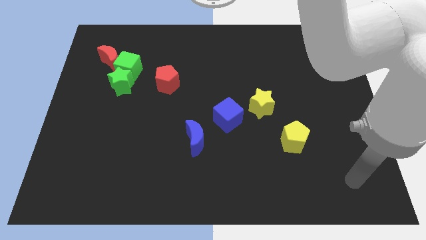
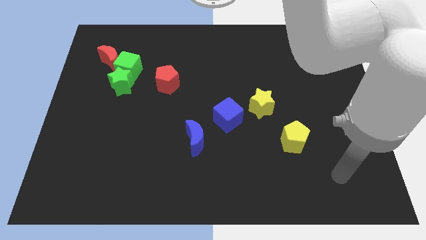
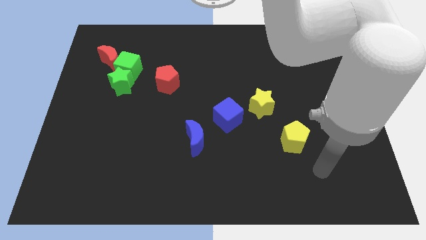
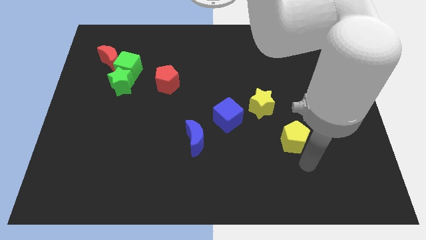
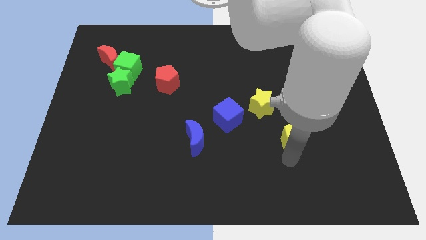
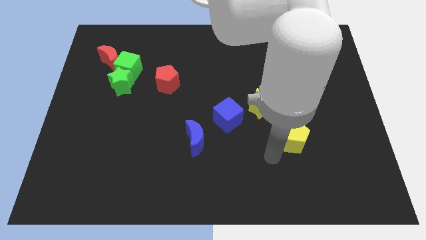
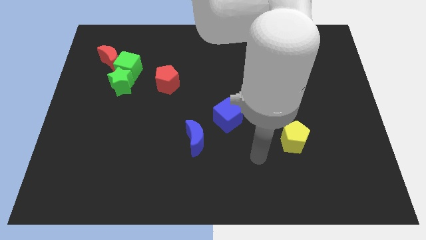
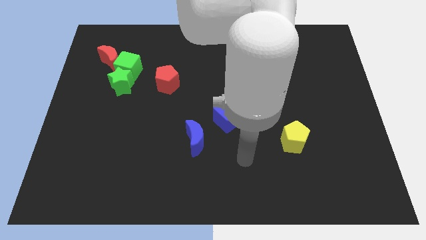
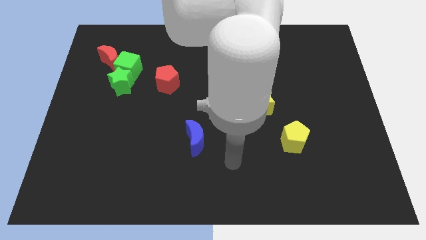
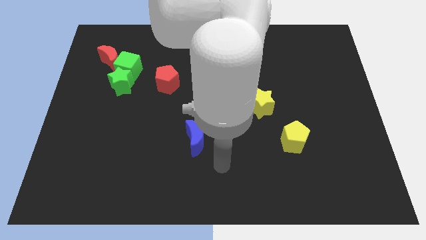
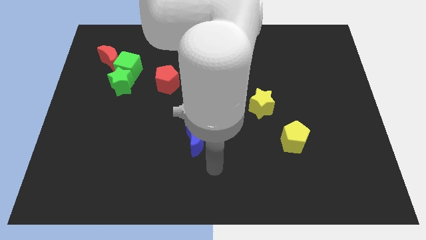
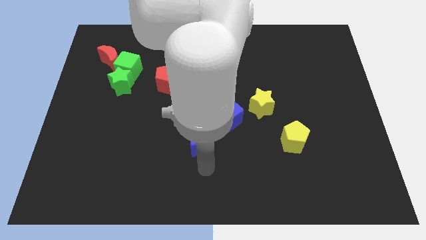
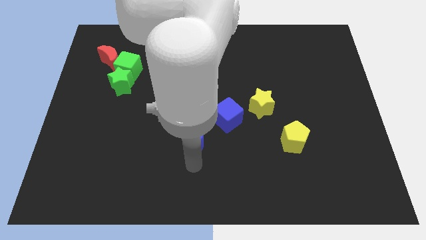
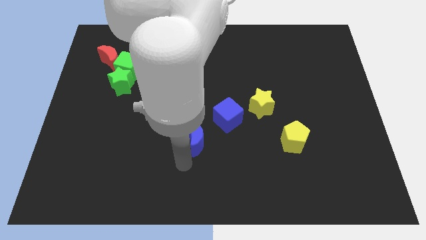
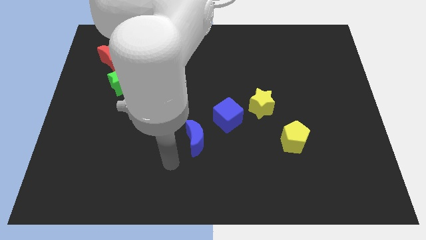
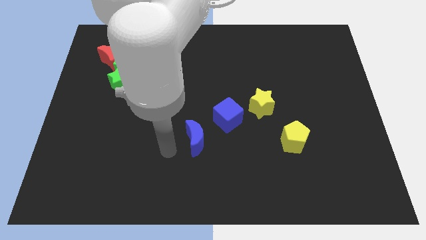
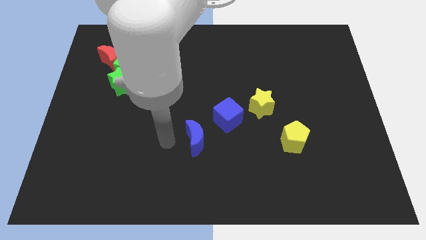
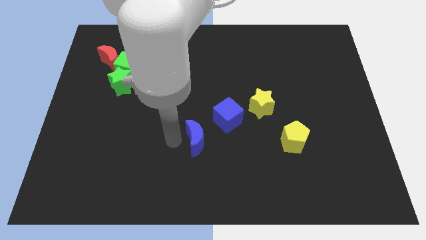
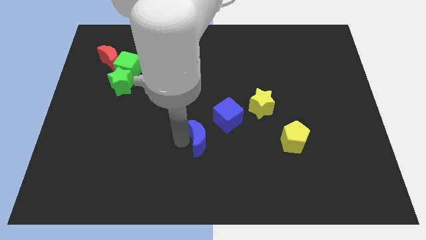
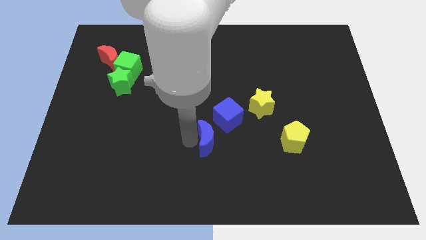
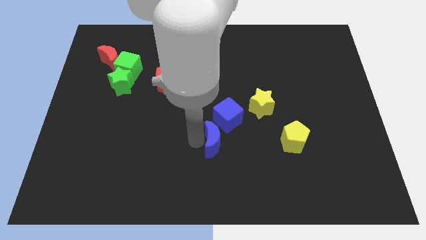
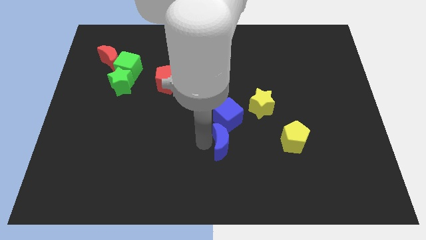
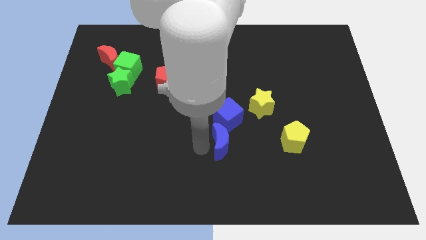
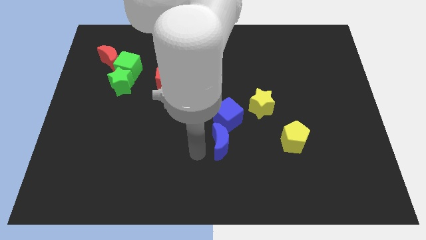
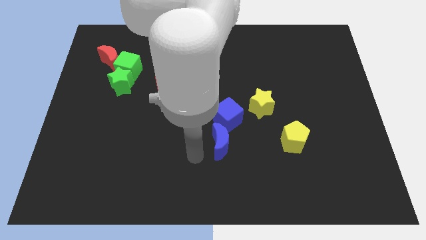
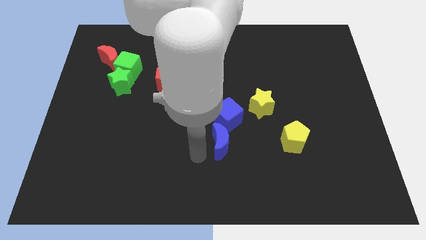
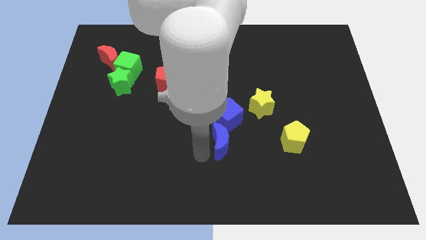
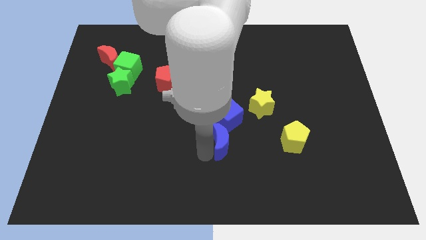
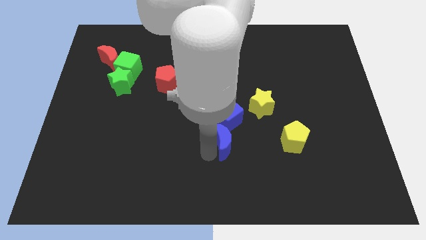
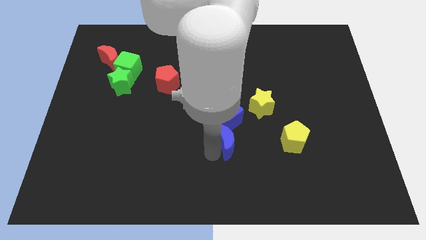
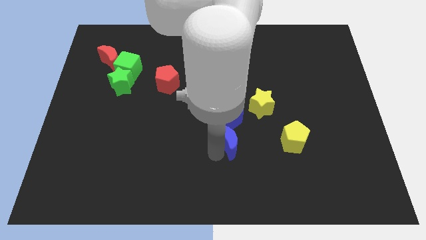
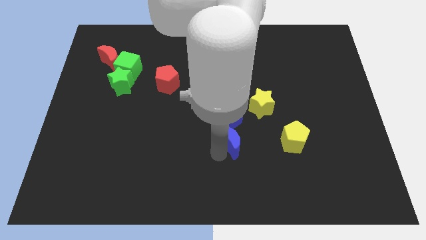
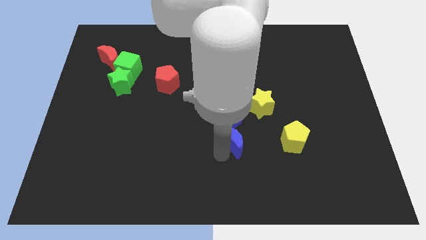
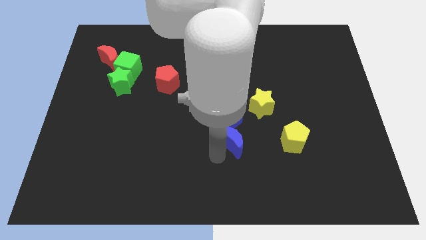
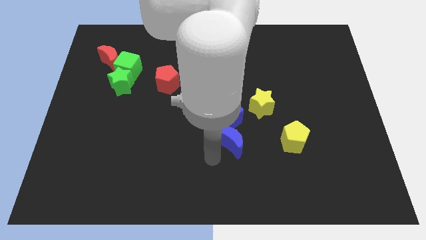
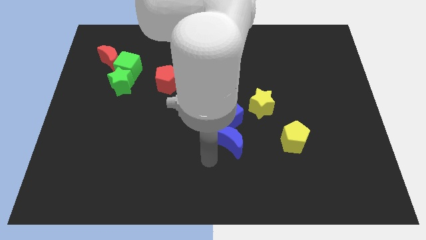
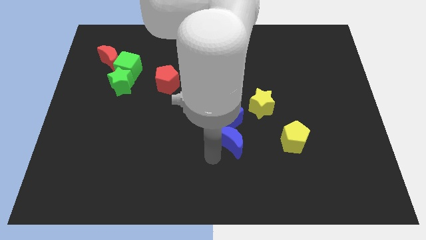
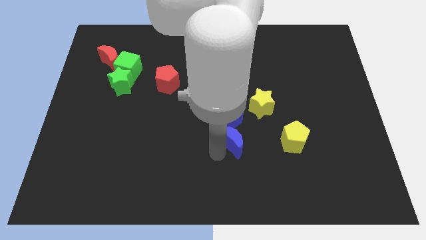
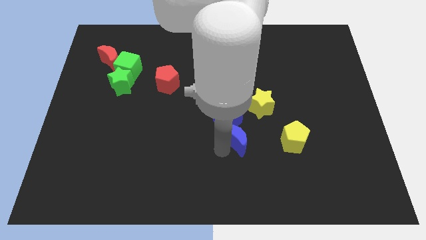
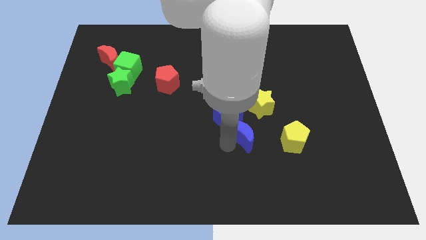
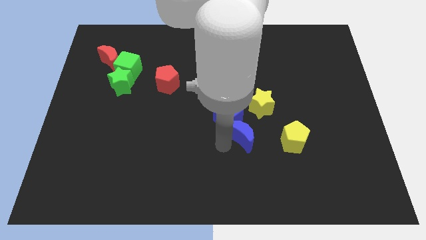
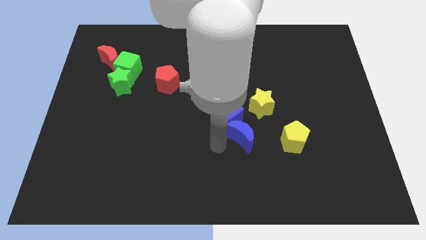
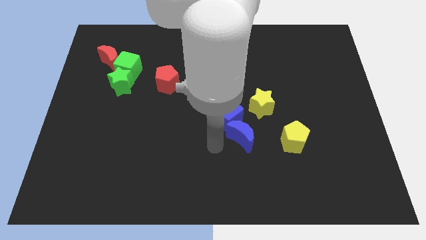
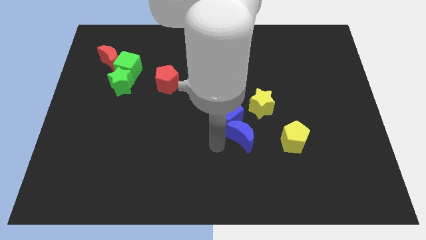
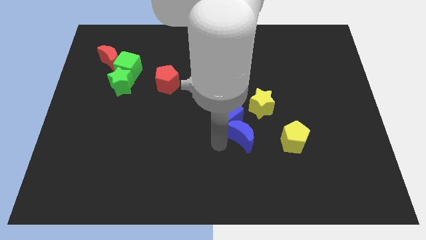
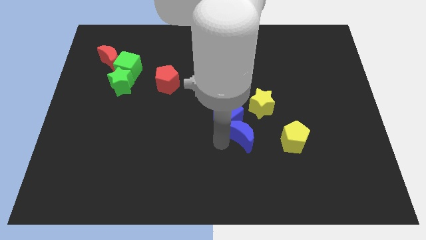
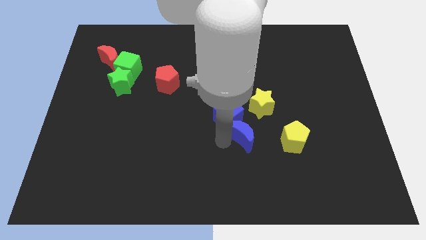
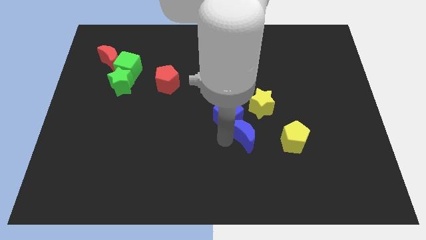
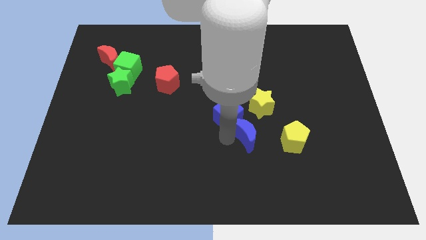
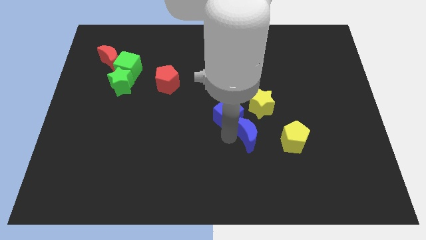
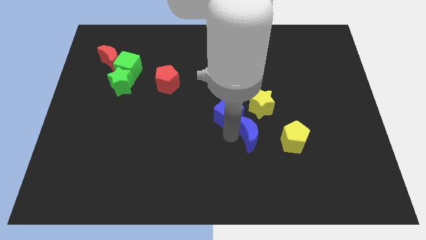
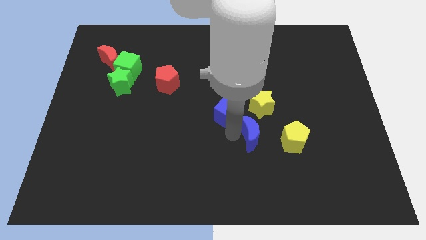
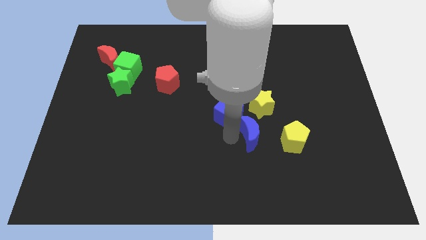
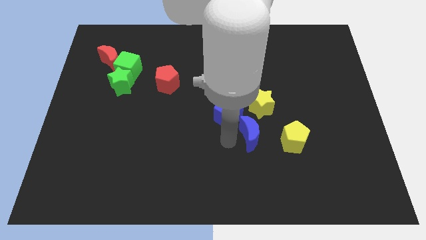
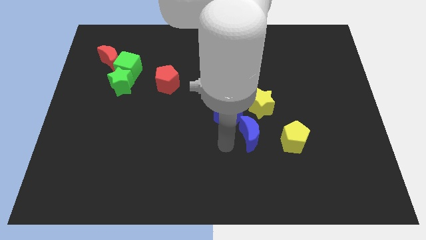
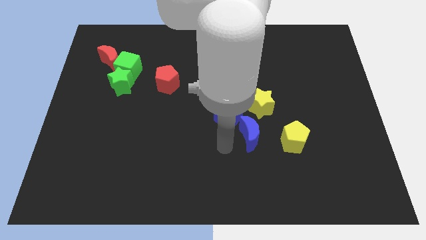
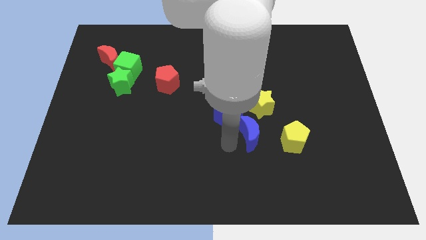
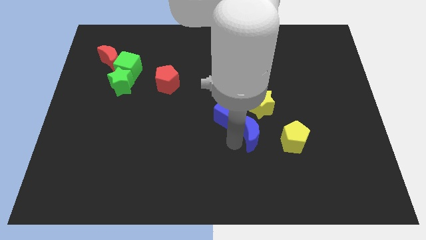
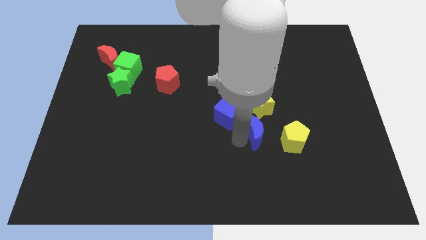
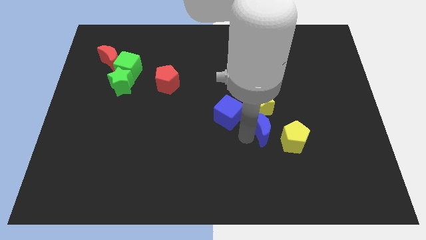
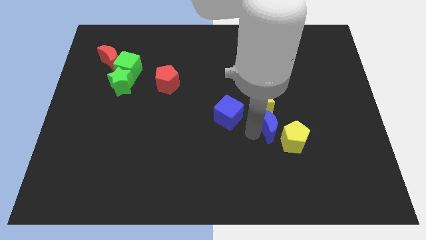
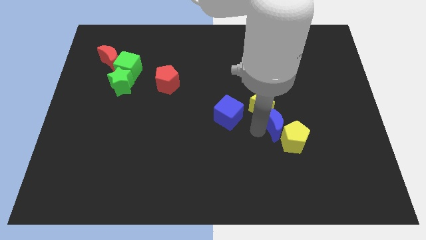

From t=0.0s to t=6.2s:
push the blue moon to the top of the yellow pentagon

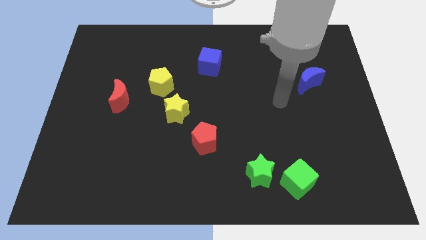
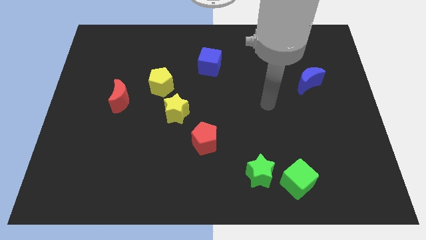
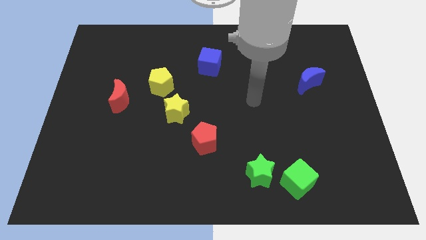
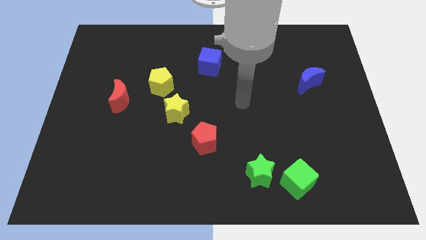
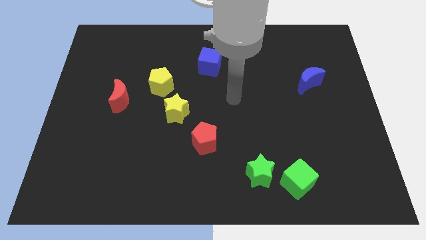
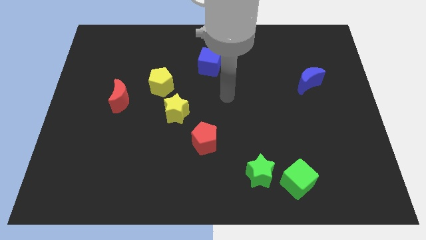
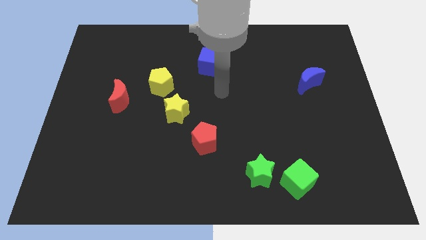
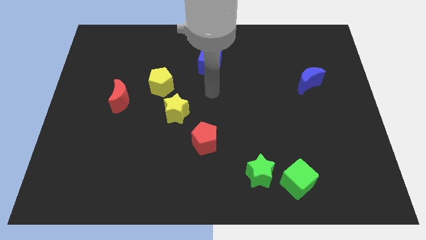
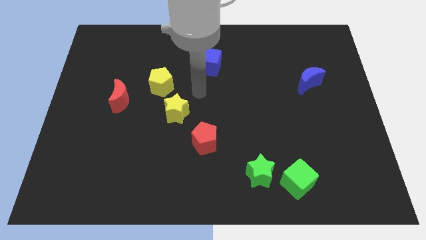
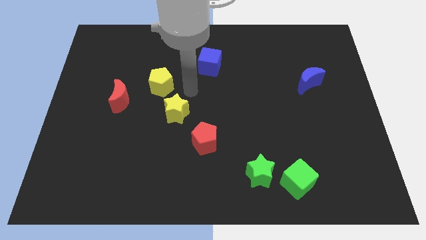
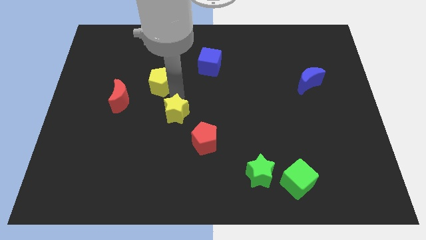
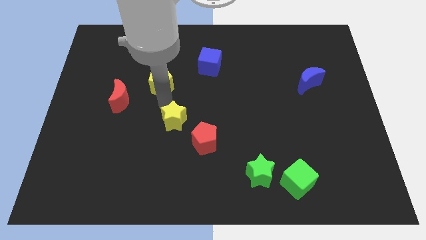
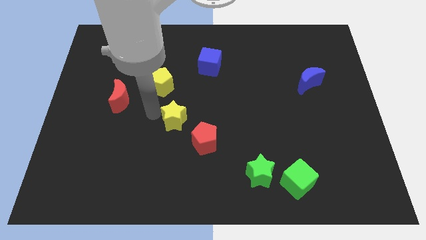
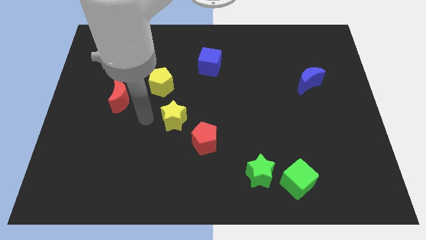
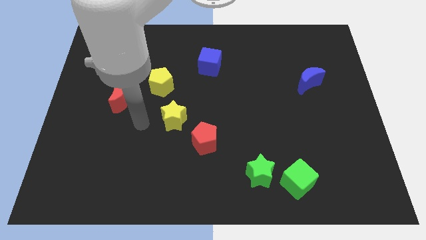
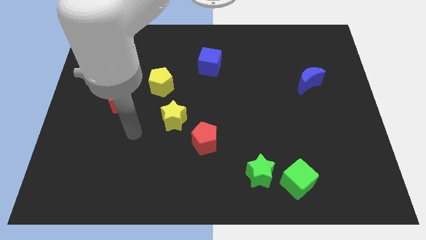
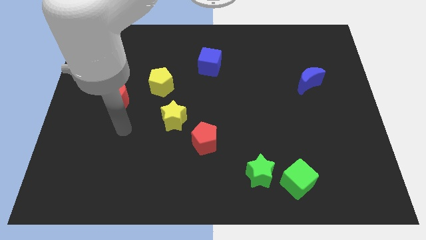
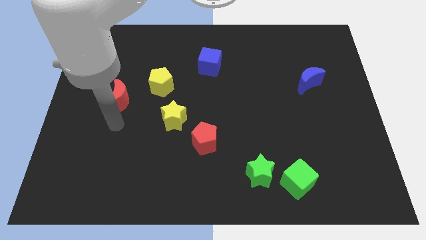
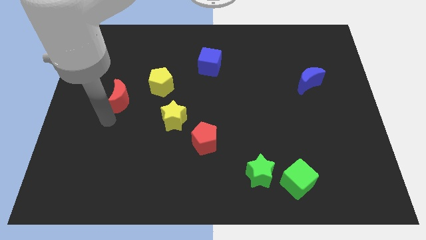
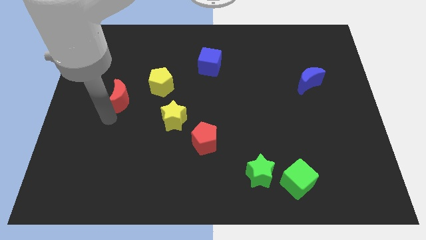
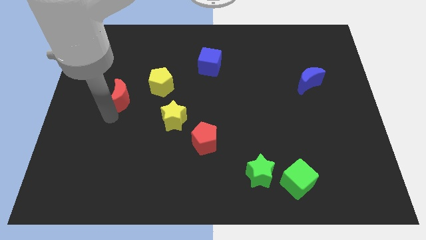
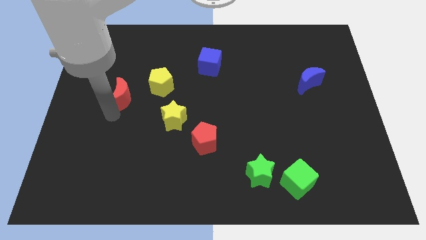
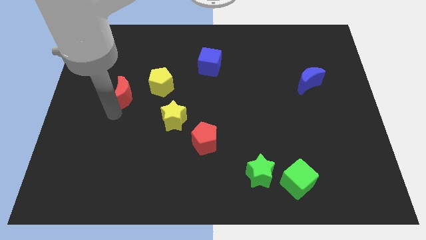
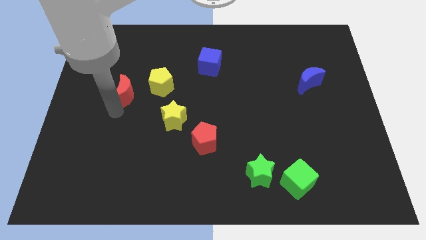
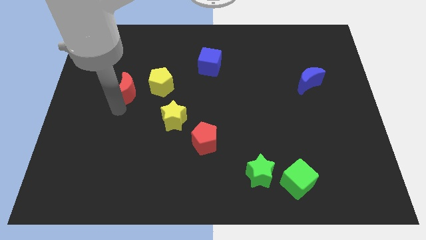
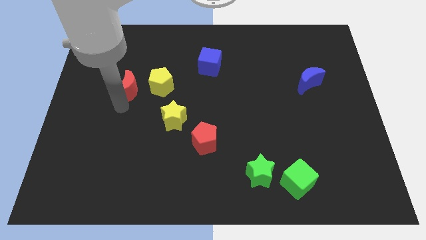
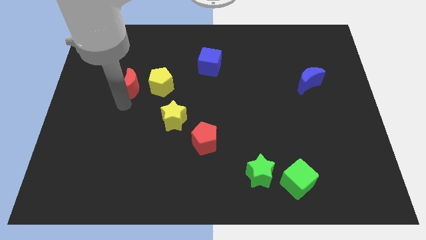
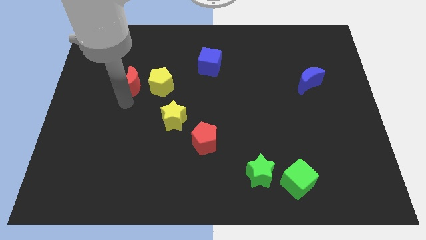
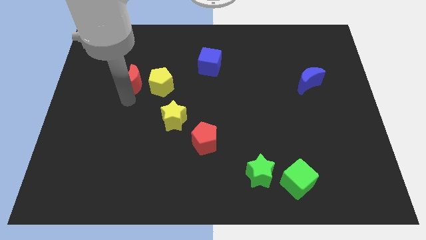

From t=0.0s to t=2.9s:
slide the red moon diagonally up and to the left of the yellow pentagon
